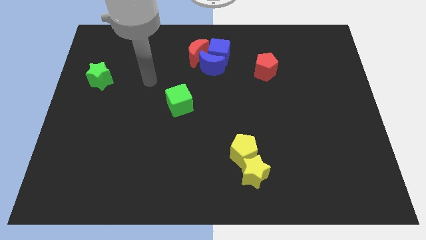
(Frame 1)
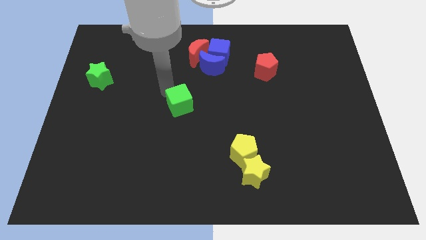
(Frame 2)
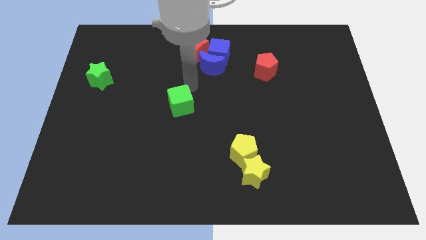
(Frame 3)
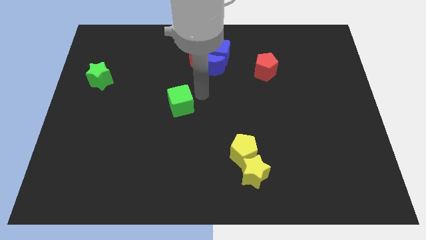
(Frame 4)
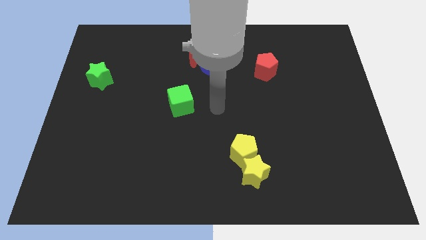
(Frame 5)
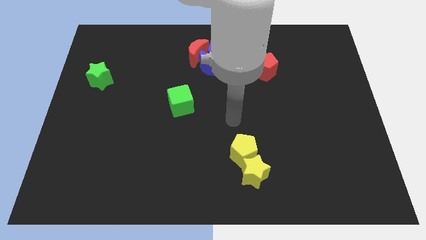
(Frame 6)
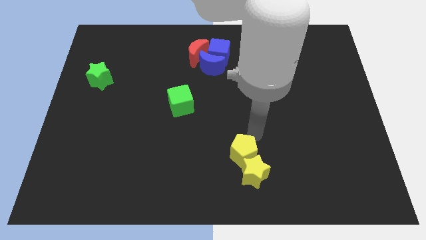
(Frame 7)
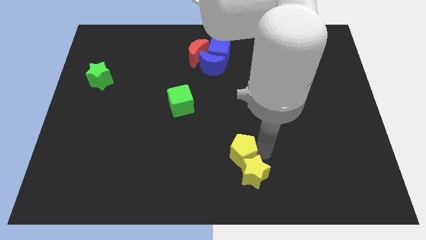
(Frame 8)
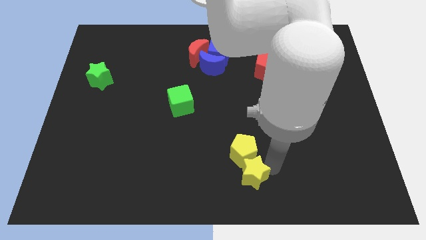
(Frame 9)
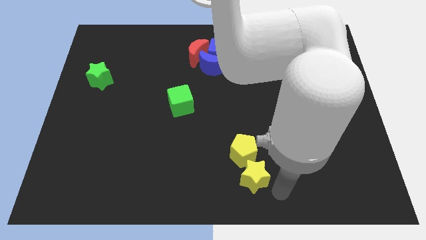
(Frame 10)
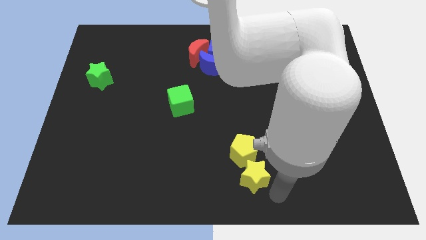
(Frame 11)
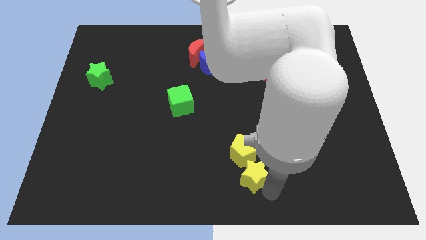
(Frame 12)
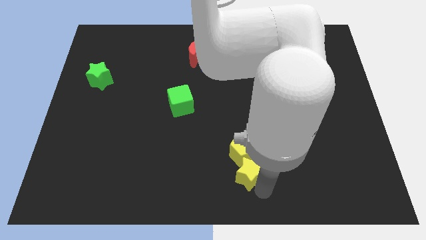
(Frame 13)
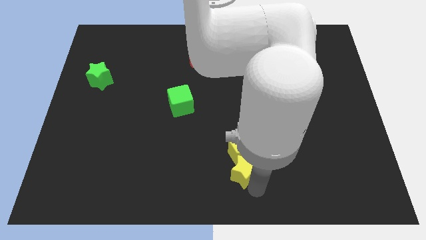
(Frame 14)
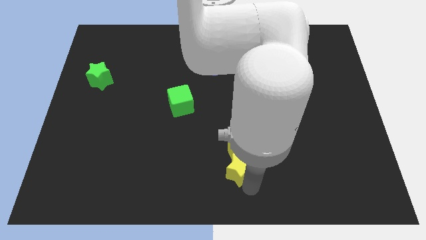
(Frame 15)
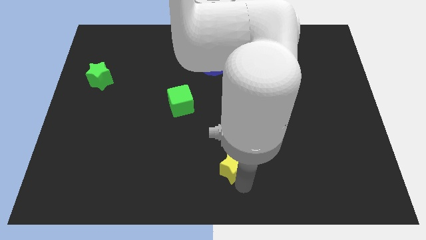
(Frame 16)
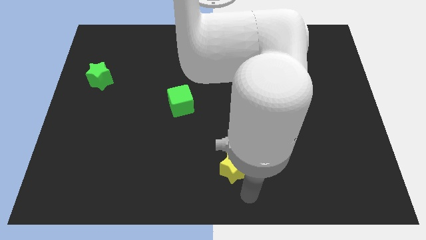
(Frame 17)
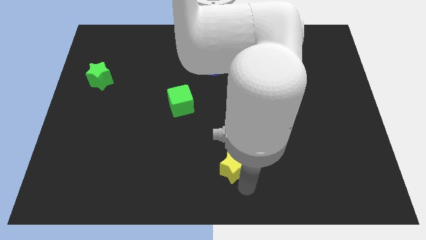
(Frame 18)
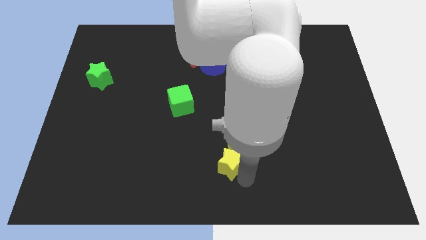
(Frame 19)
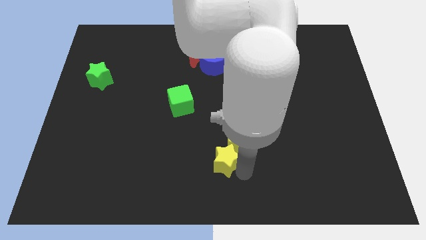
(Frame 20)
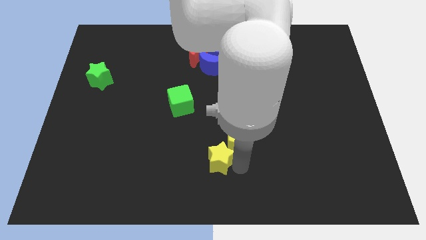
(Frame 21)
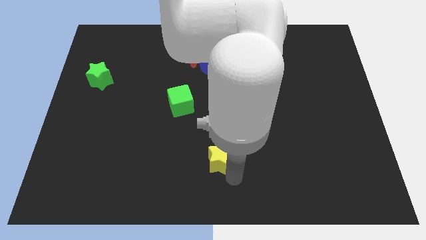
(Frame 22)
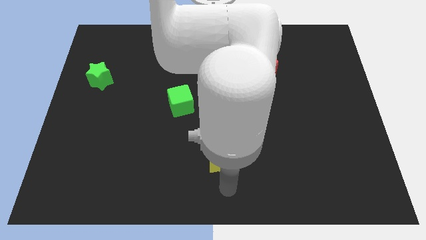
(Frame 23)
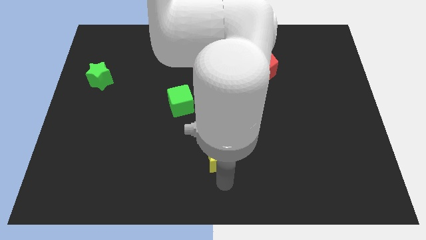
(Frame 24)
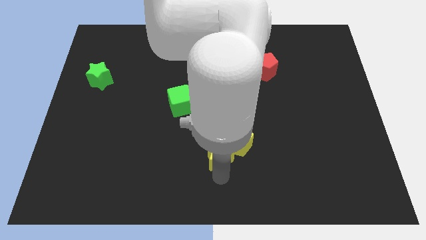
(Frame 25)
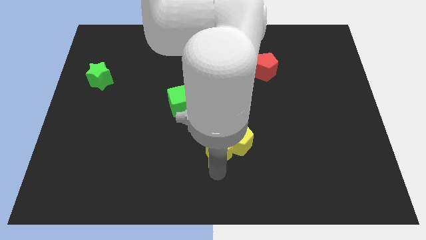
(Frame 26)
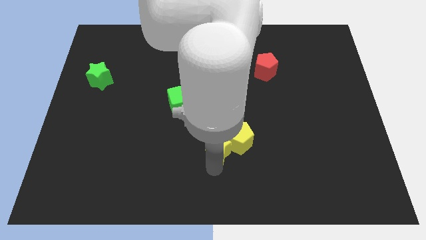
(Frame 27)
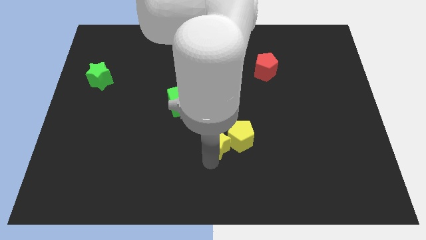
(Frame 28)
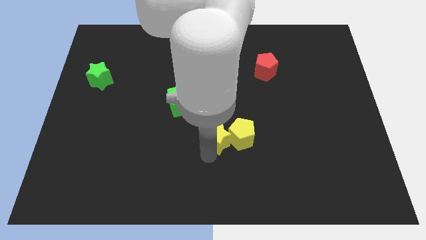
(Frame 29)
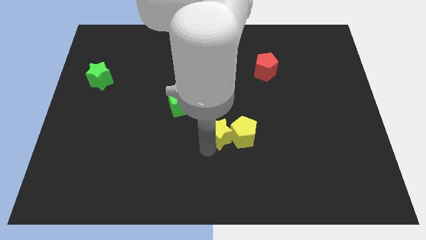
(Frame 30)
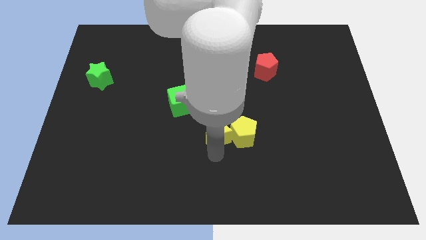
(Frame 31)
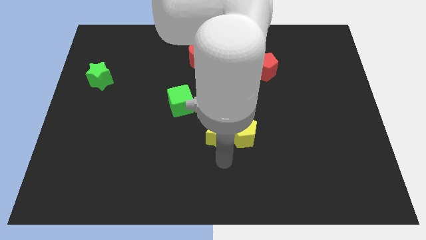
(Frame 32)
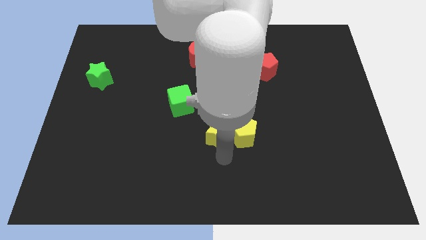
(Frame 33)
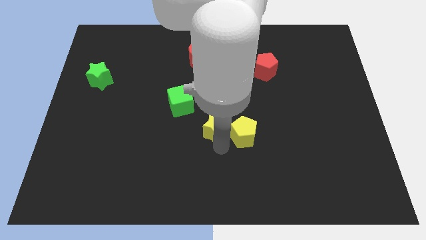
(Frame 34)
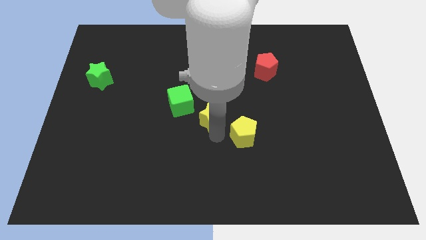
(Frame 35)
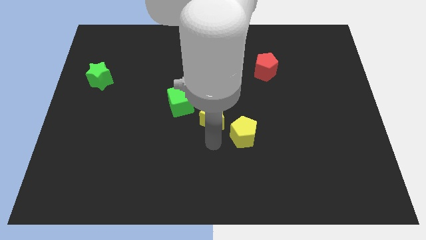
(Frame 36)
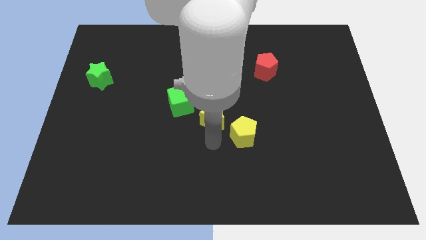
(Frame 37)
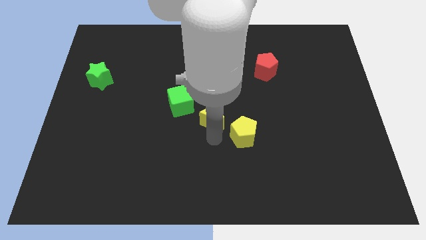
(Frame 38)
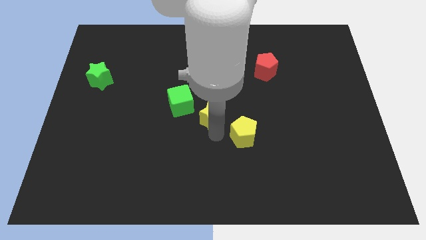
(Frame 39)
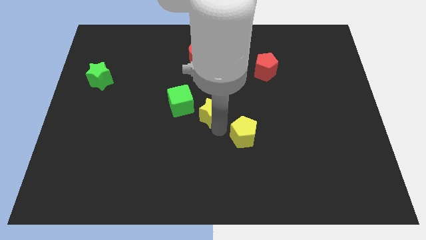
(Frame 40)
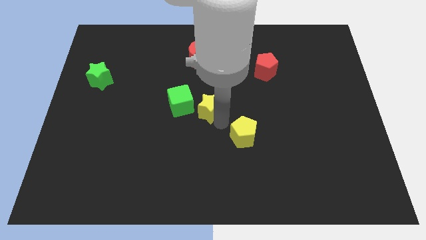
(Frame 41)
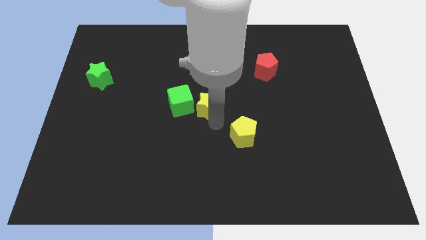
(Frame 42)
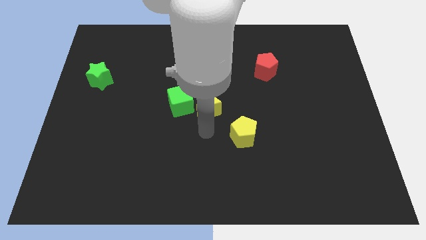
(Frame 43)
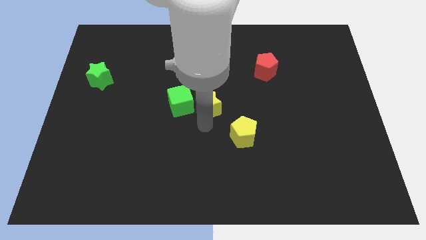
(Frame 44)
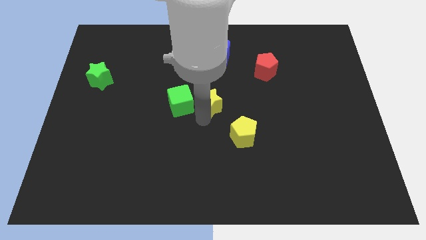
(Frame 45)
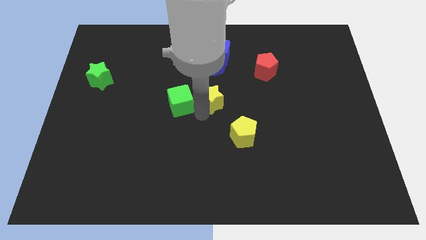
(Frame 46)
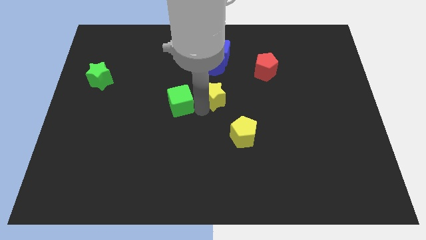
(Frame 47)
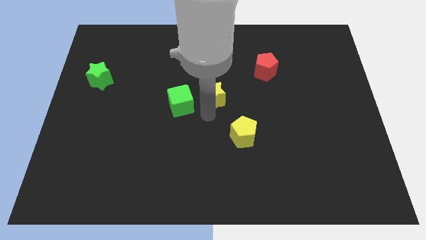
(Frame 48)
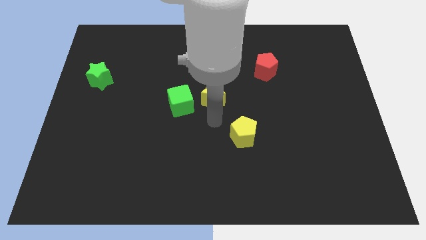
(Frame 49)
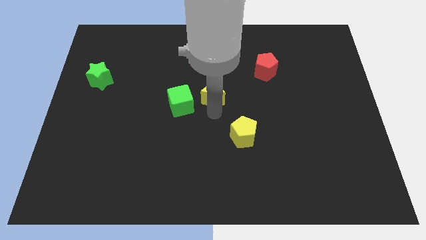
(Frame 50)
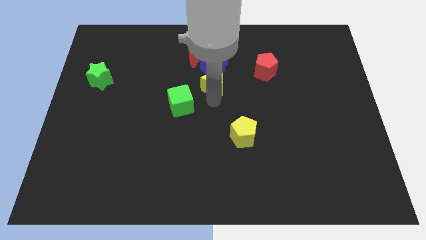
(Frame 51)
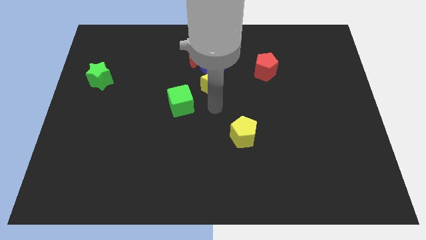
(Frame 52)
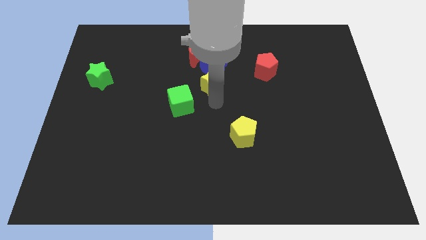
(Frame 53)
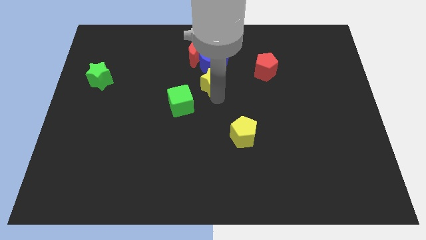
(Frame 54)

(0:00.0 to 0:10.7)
put the yellow star close to the blue moon

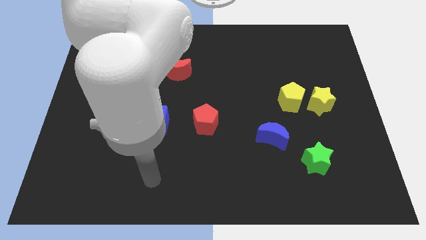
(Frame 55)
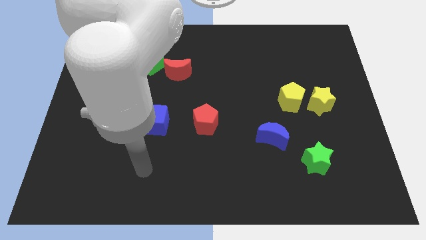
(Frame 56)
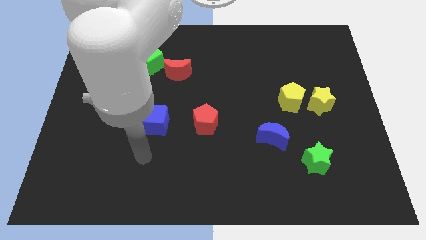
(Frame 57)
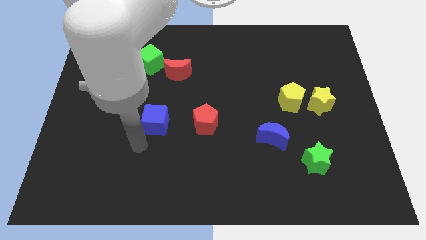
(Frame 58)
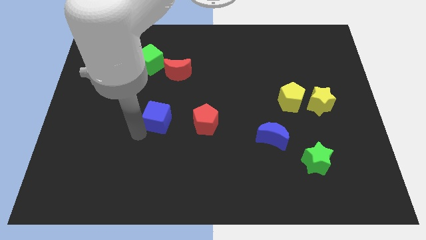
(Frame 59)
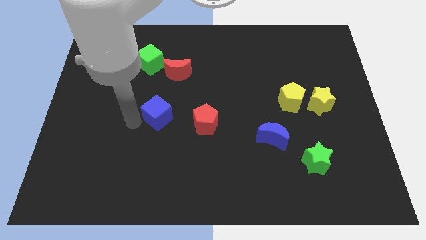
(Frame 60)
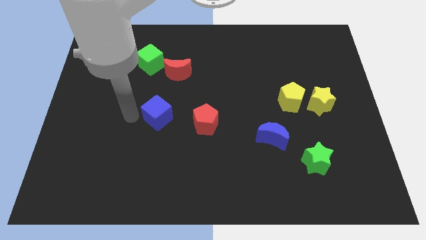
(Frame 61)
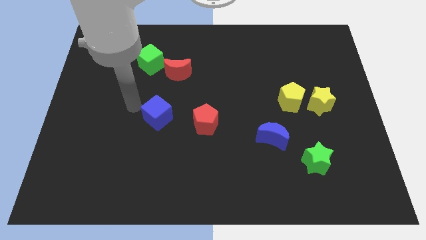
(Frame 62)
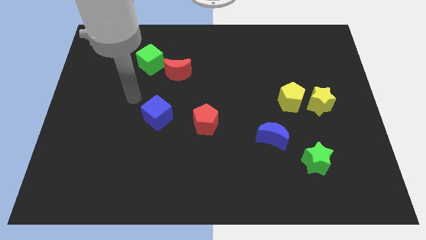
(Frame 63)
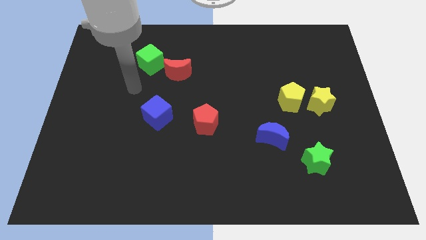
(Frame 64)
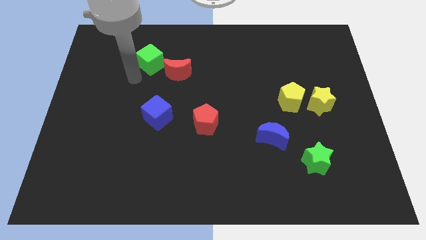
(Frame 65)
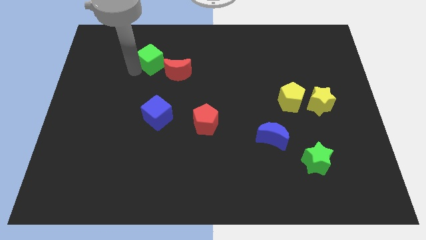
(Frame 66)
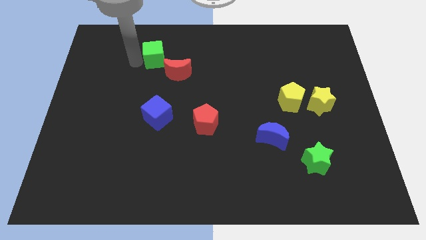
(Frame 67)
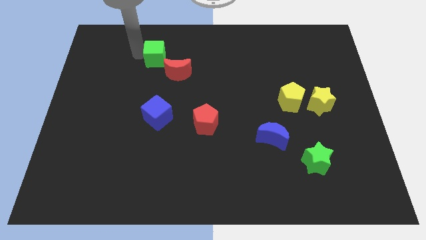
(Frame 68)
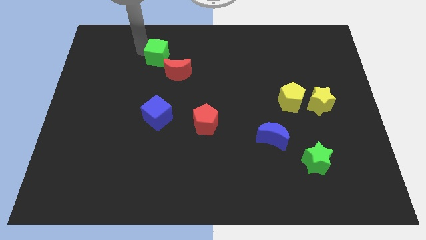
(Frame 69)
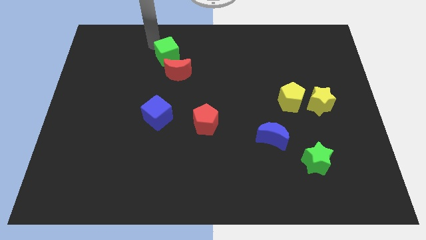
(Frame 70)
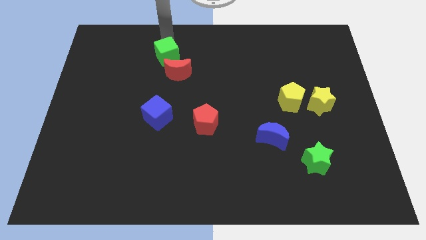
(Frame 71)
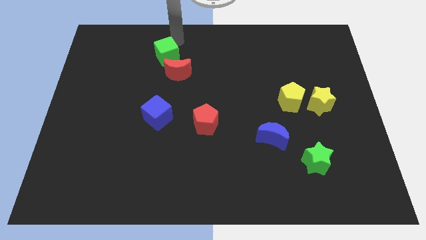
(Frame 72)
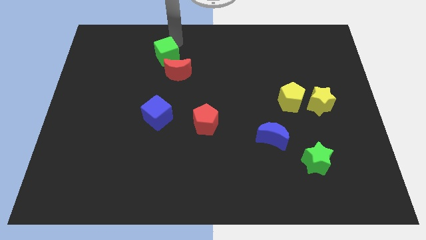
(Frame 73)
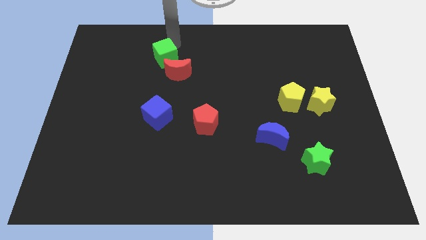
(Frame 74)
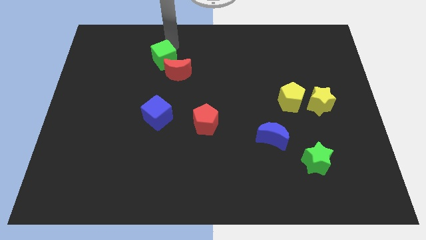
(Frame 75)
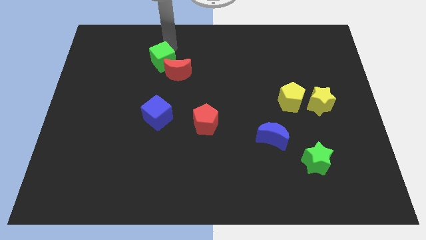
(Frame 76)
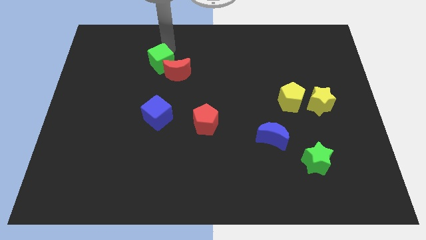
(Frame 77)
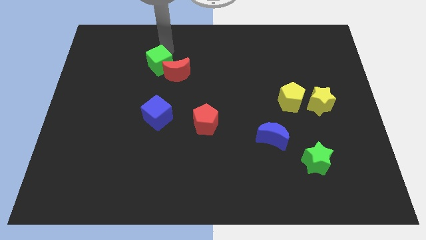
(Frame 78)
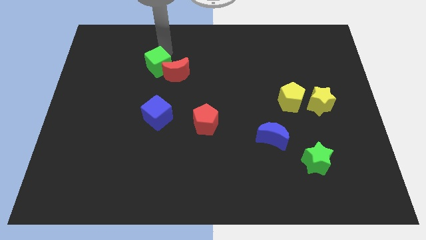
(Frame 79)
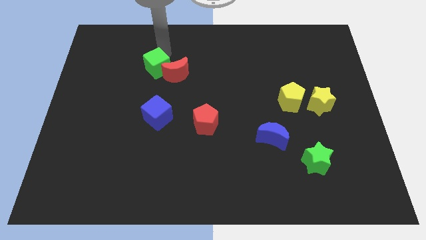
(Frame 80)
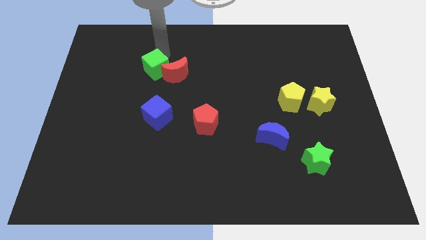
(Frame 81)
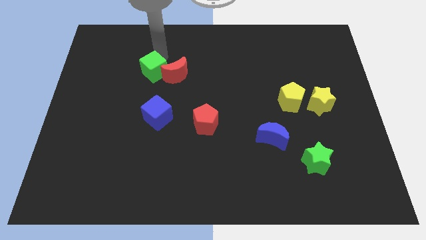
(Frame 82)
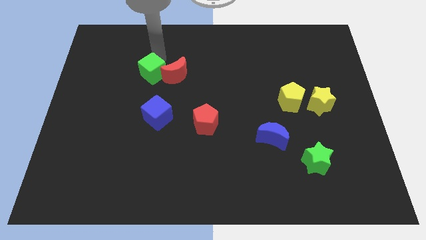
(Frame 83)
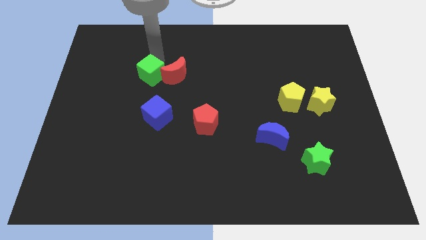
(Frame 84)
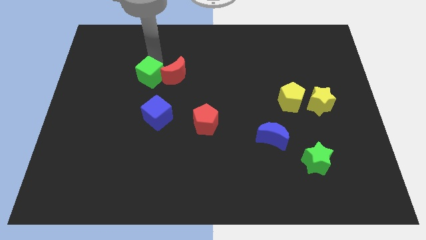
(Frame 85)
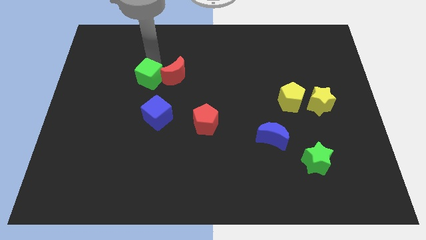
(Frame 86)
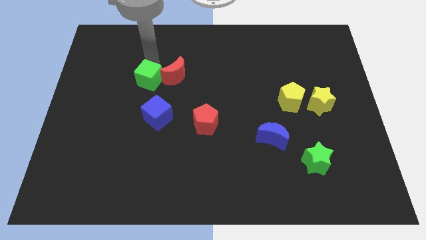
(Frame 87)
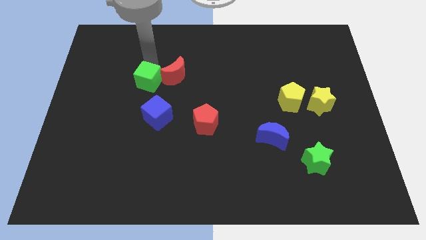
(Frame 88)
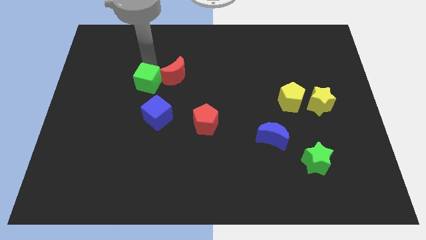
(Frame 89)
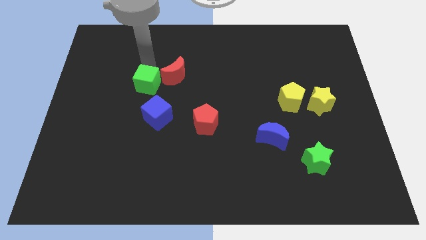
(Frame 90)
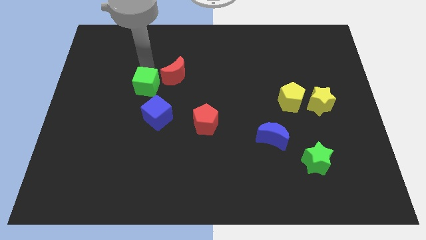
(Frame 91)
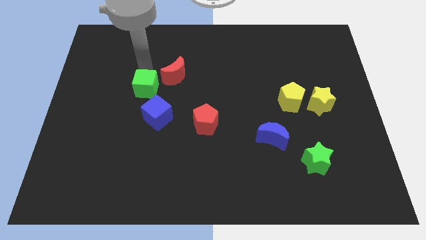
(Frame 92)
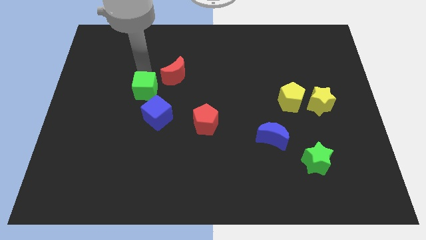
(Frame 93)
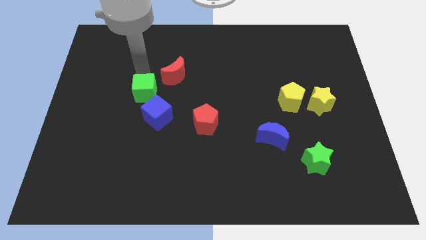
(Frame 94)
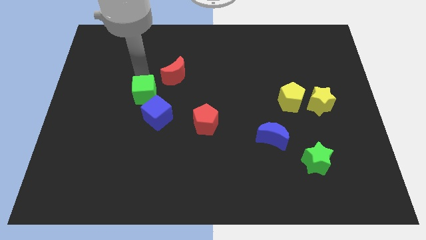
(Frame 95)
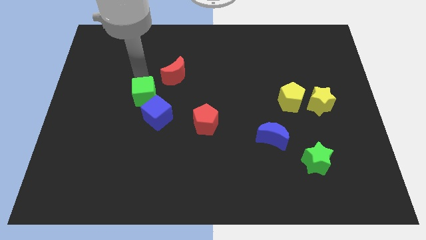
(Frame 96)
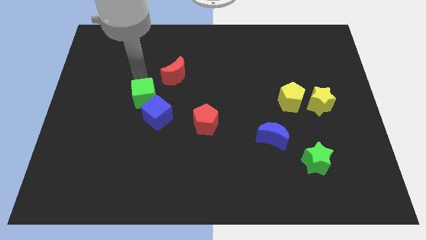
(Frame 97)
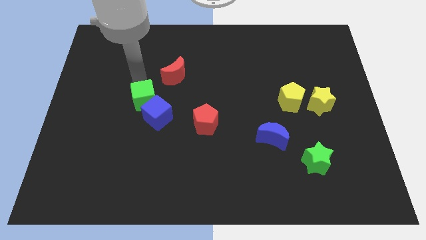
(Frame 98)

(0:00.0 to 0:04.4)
push the green cube towards the blue cube
